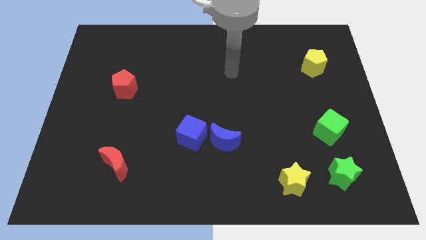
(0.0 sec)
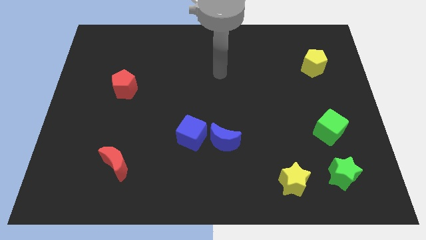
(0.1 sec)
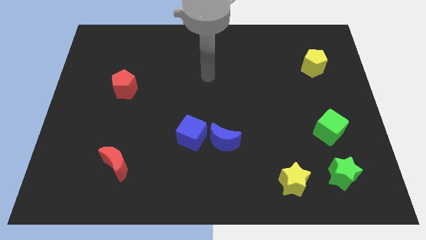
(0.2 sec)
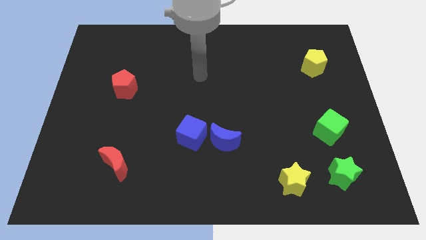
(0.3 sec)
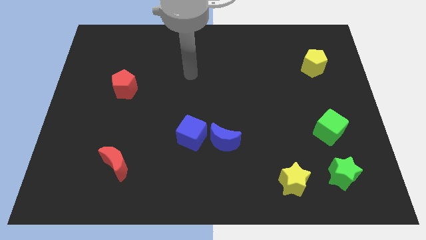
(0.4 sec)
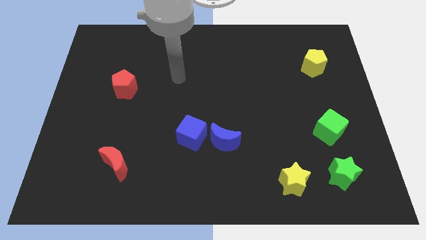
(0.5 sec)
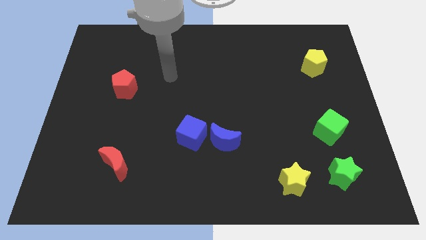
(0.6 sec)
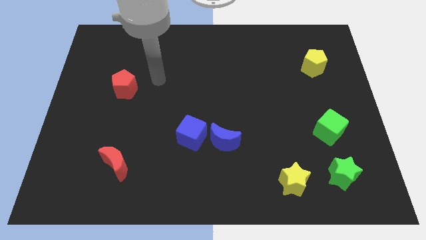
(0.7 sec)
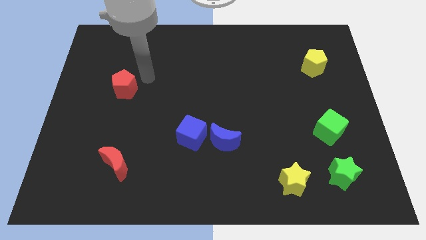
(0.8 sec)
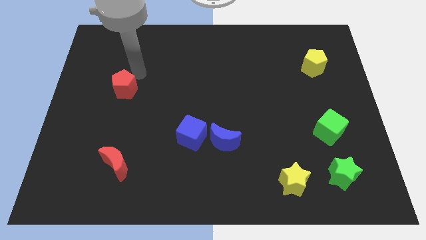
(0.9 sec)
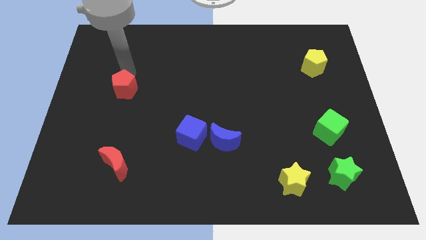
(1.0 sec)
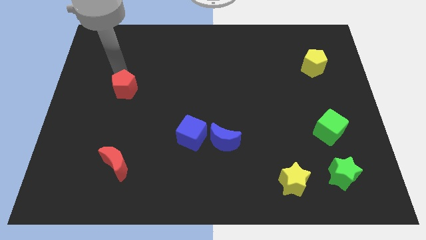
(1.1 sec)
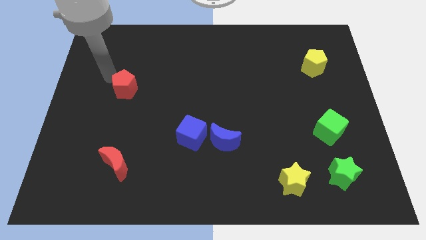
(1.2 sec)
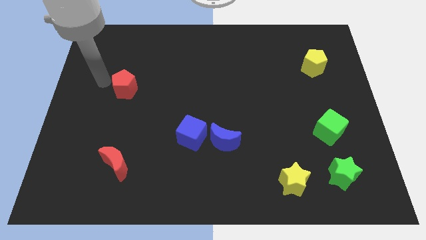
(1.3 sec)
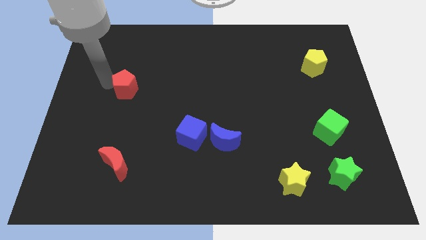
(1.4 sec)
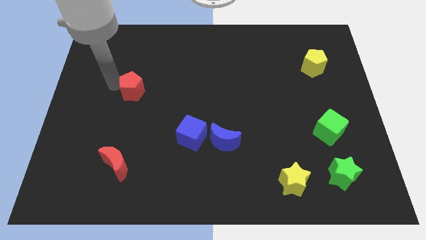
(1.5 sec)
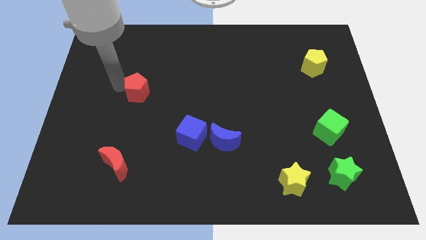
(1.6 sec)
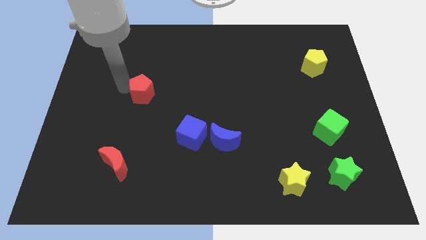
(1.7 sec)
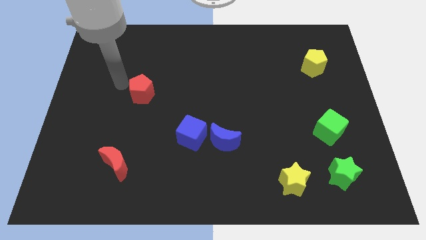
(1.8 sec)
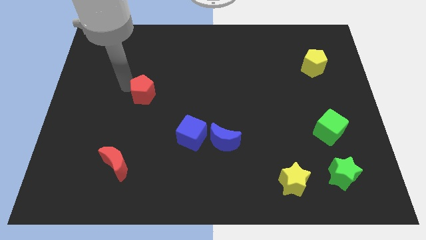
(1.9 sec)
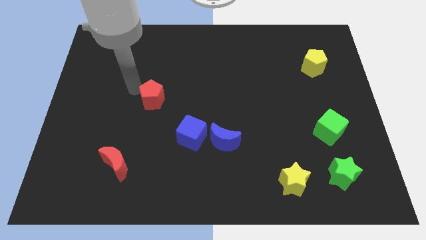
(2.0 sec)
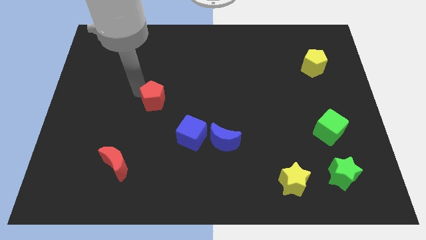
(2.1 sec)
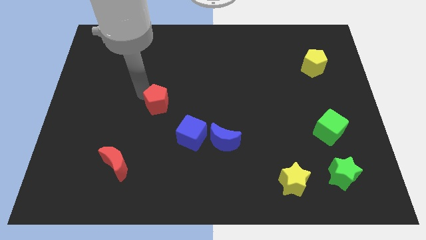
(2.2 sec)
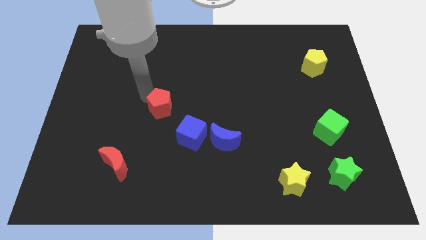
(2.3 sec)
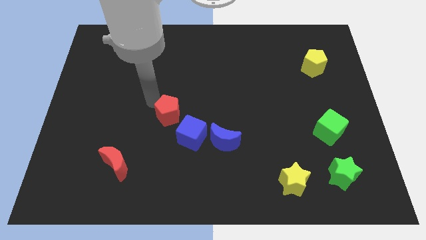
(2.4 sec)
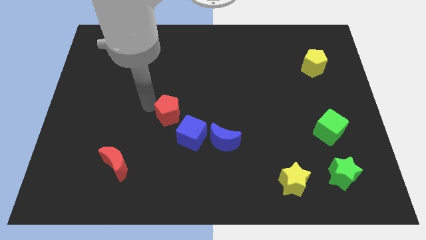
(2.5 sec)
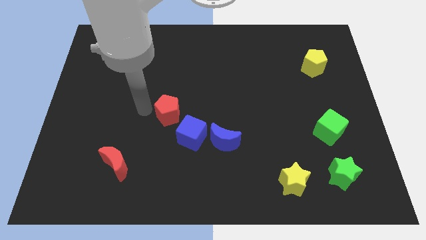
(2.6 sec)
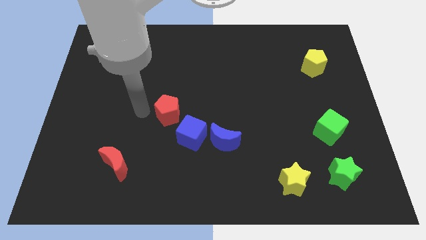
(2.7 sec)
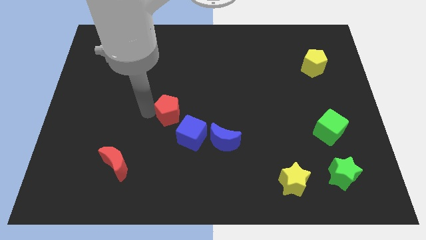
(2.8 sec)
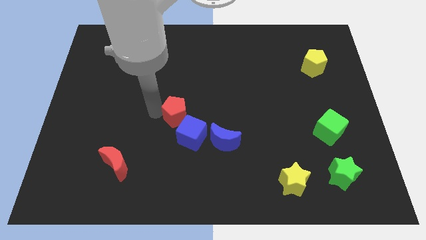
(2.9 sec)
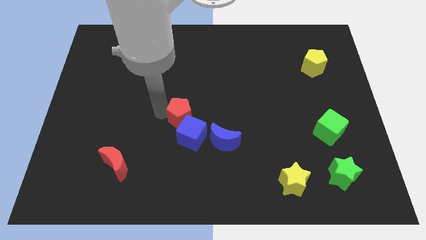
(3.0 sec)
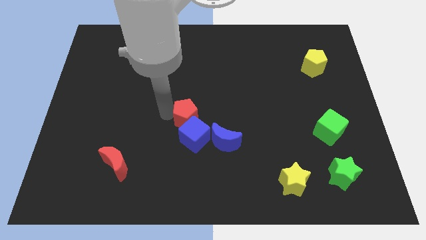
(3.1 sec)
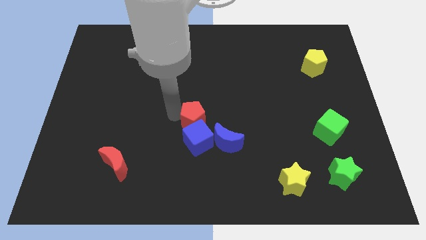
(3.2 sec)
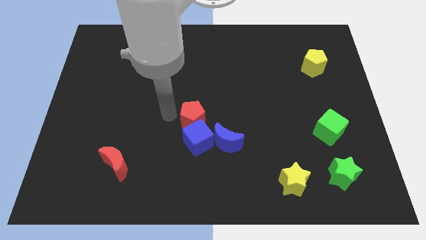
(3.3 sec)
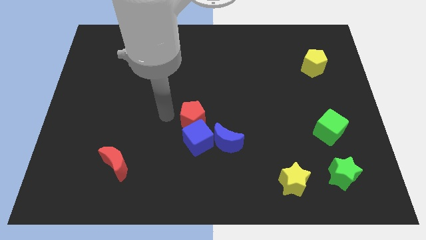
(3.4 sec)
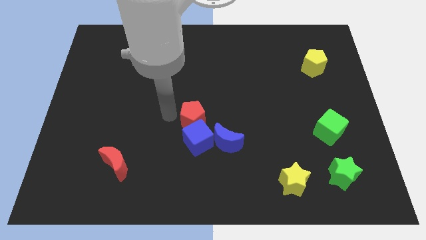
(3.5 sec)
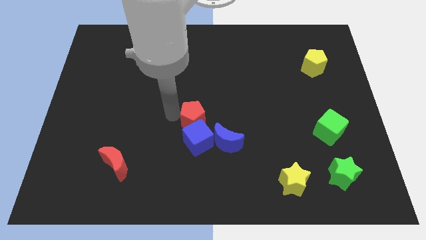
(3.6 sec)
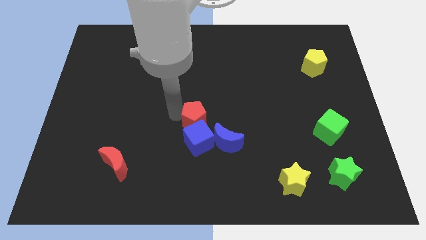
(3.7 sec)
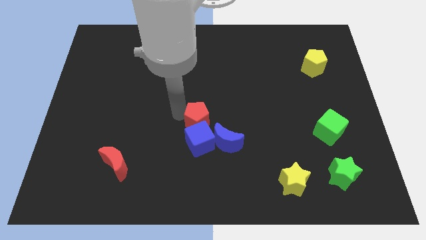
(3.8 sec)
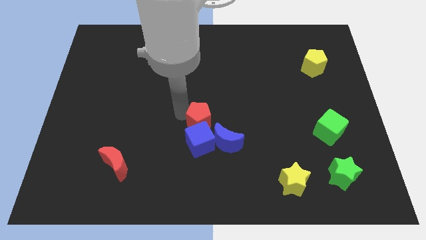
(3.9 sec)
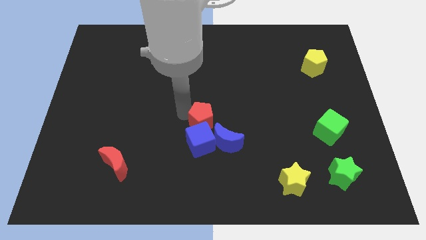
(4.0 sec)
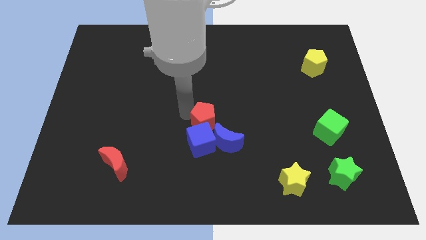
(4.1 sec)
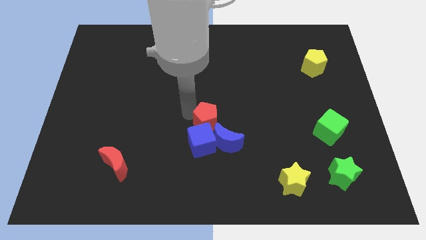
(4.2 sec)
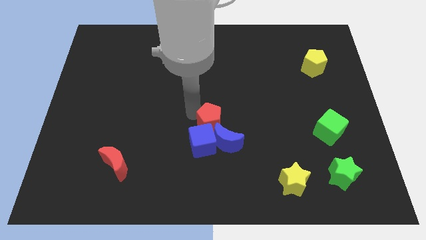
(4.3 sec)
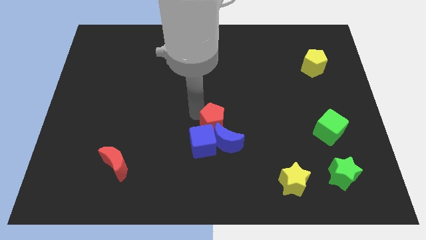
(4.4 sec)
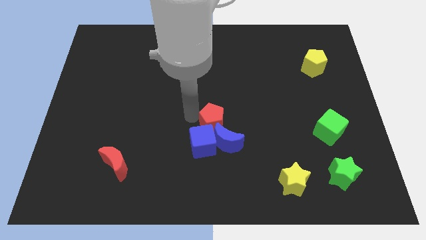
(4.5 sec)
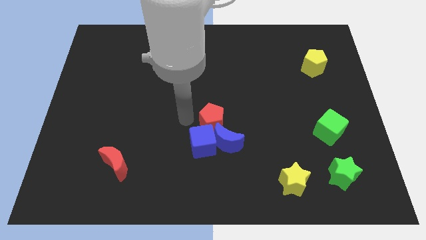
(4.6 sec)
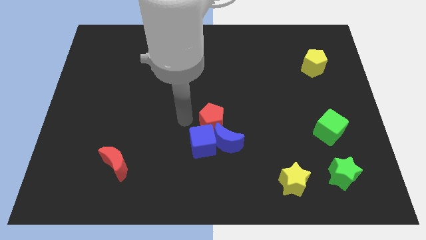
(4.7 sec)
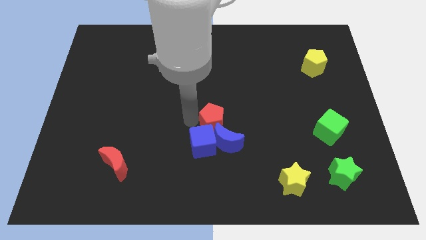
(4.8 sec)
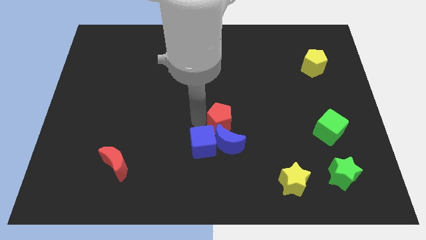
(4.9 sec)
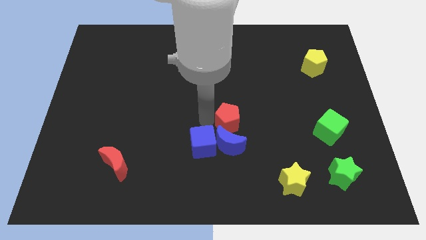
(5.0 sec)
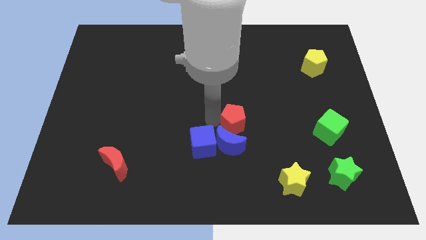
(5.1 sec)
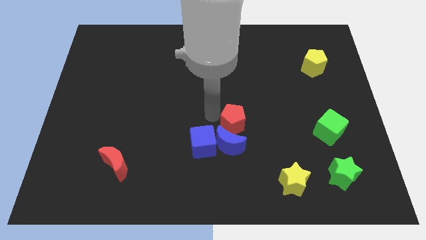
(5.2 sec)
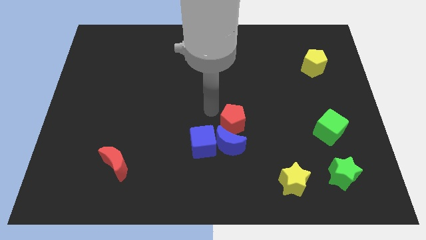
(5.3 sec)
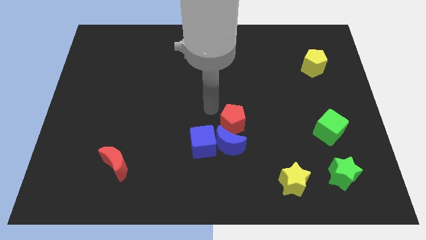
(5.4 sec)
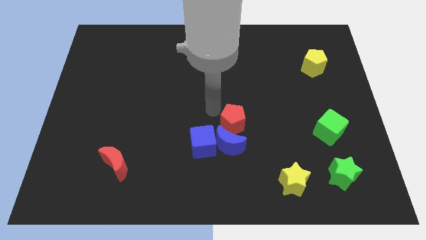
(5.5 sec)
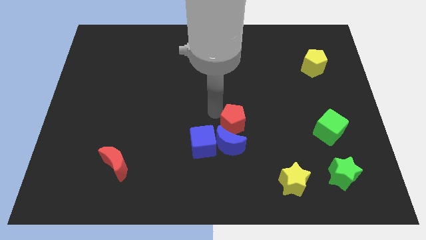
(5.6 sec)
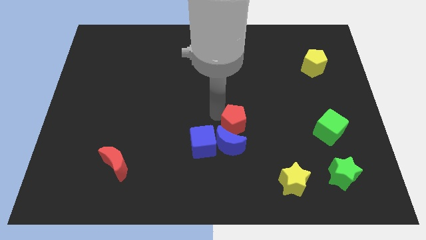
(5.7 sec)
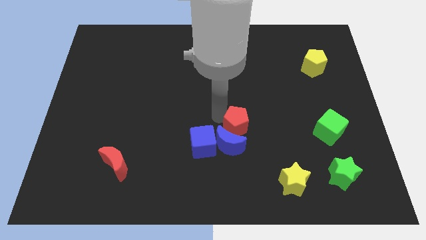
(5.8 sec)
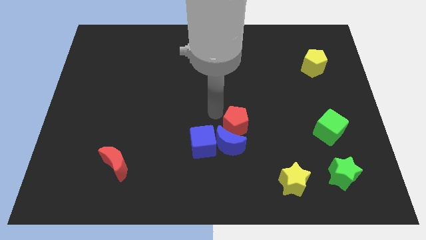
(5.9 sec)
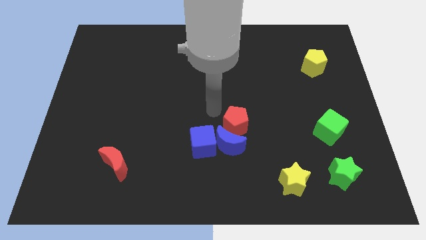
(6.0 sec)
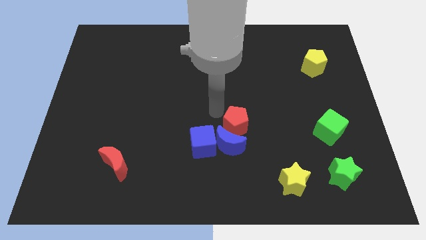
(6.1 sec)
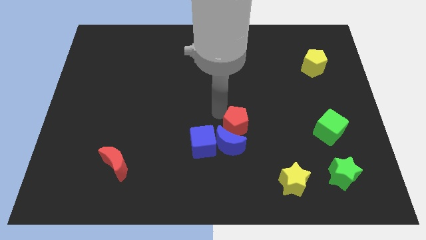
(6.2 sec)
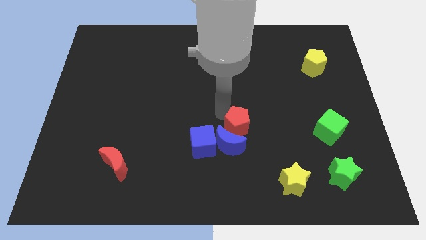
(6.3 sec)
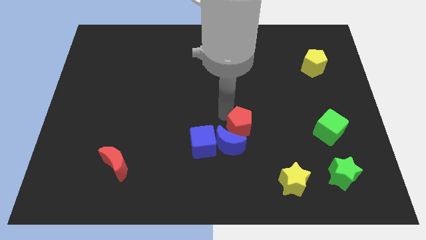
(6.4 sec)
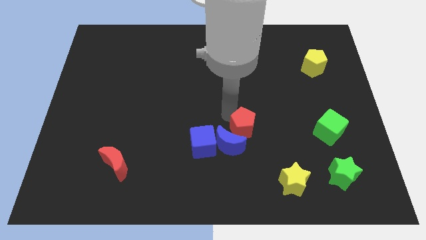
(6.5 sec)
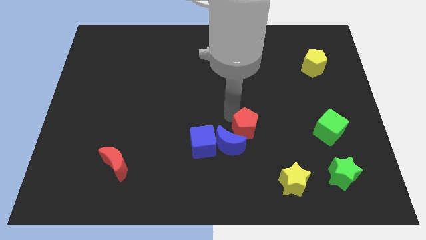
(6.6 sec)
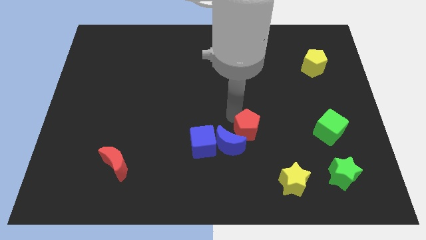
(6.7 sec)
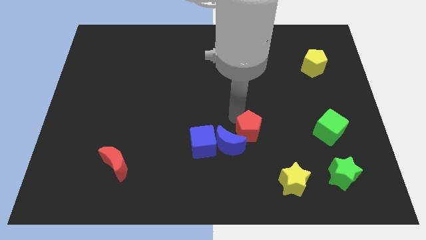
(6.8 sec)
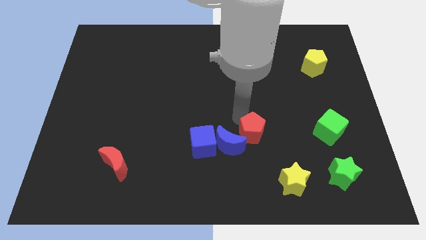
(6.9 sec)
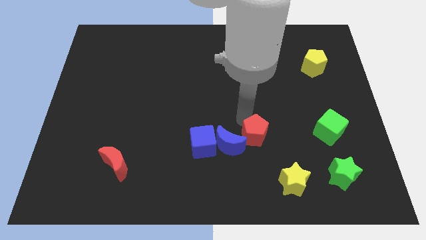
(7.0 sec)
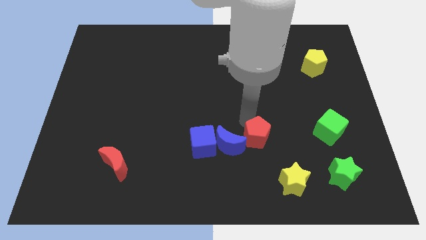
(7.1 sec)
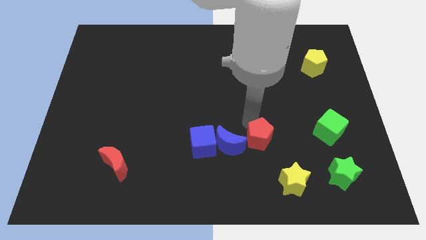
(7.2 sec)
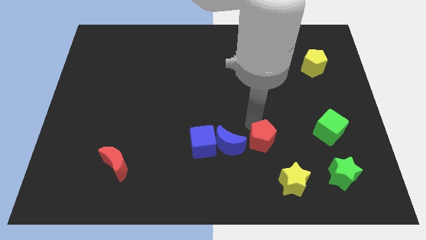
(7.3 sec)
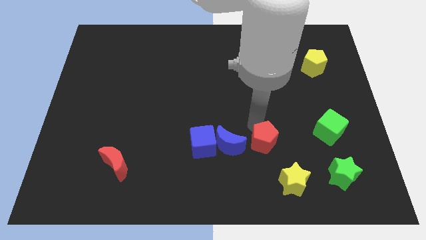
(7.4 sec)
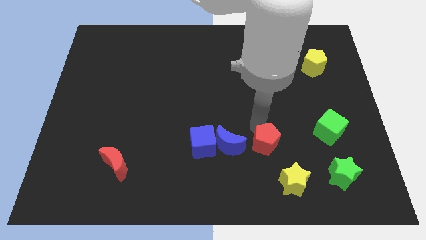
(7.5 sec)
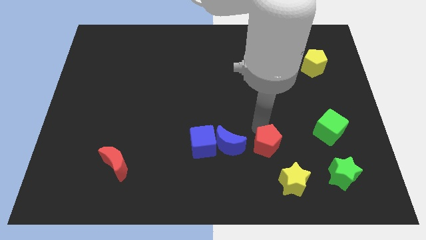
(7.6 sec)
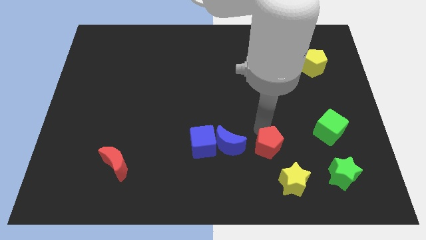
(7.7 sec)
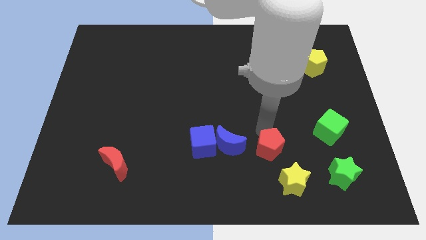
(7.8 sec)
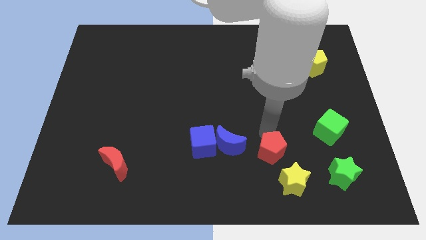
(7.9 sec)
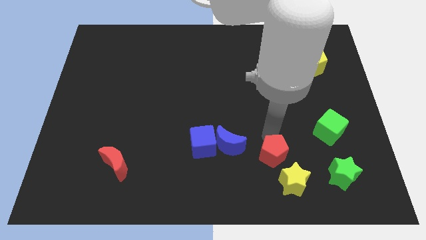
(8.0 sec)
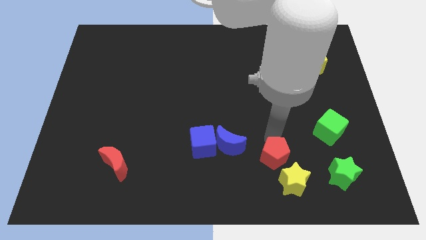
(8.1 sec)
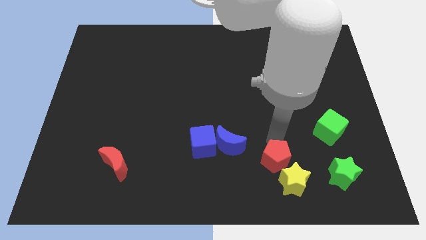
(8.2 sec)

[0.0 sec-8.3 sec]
move the red pentagon to the yellow star
